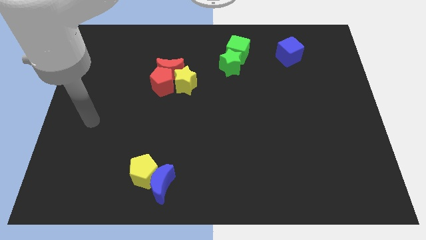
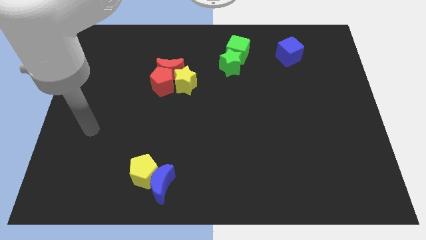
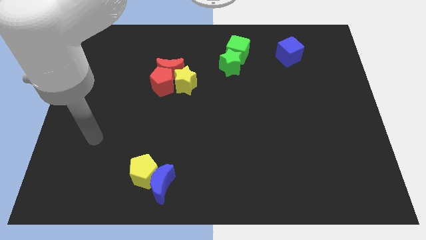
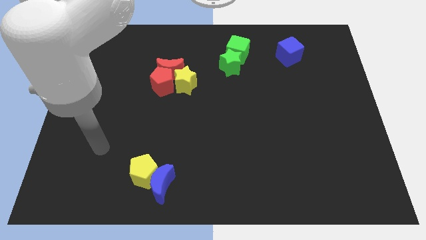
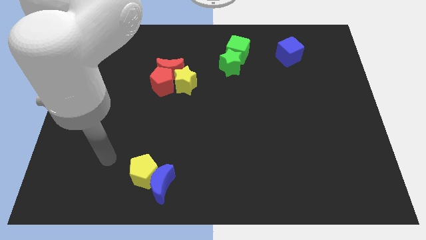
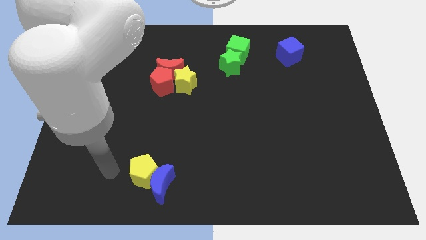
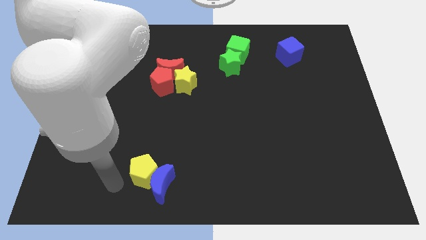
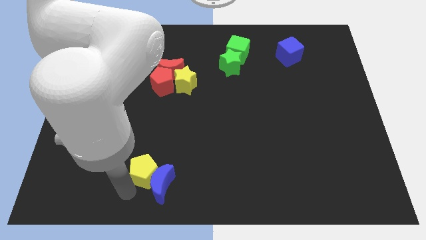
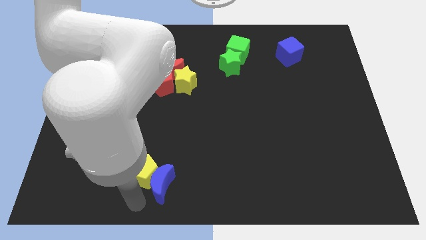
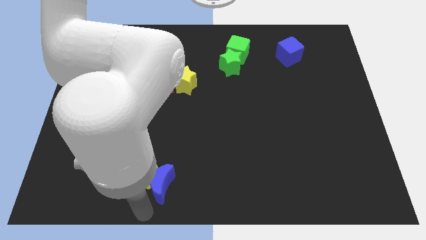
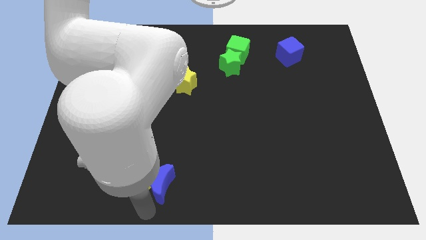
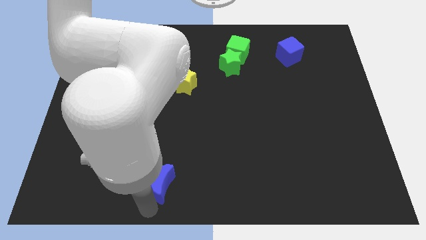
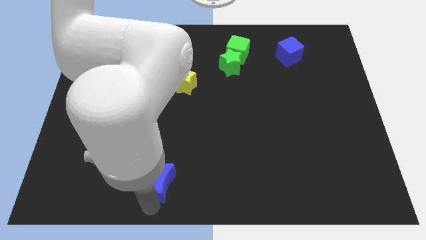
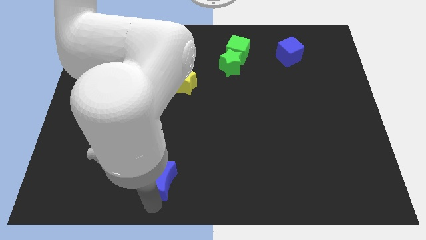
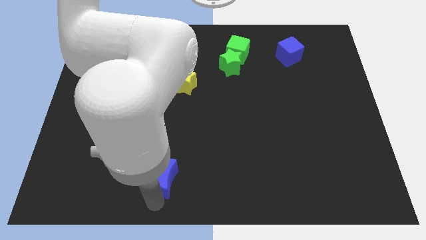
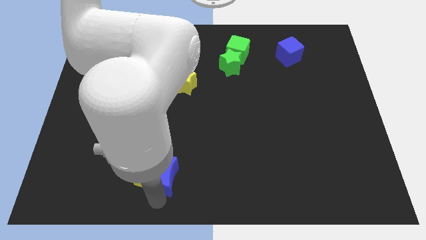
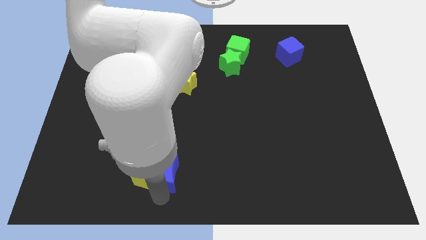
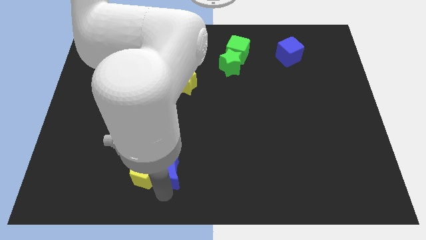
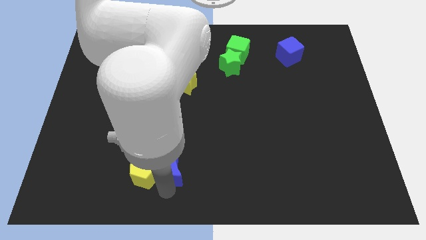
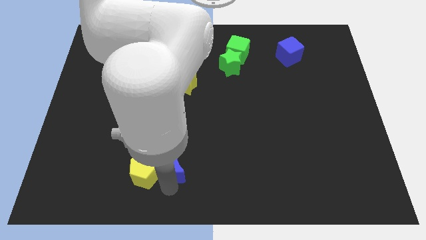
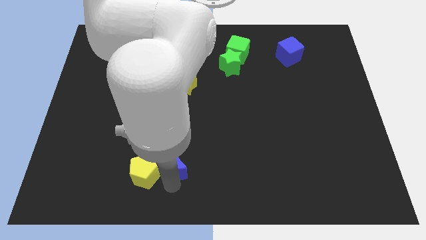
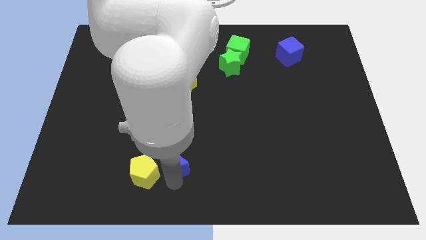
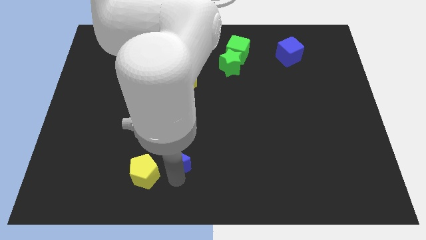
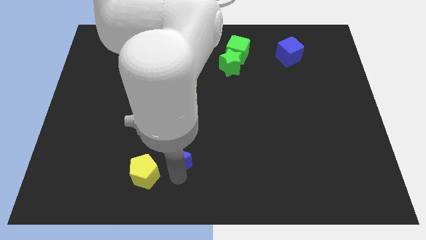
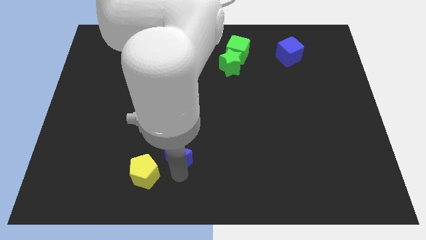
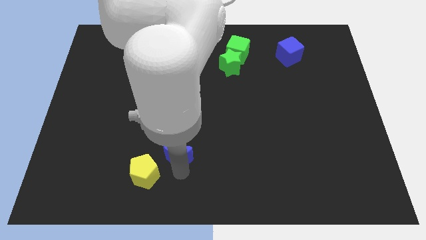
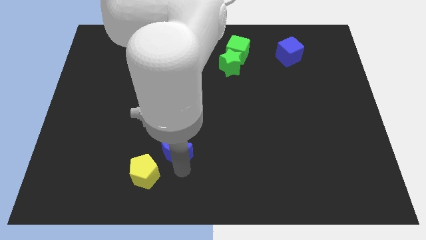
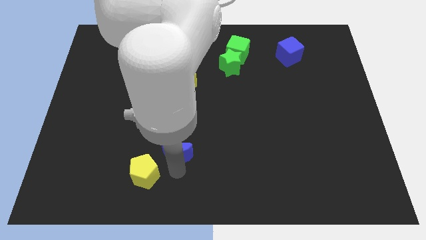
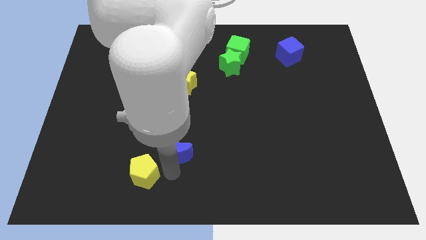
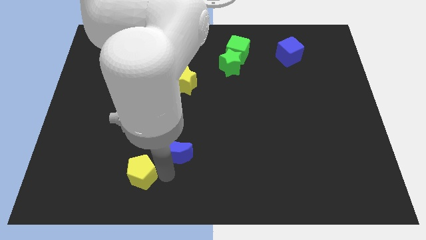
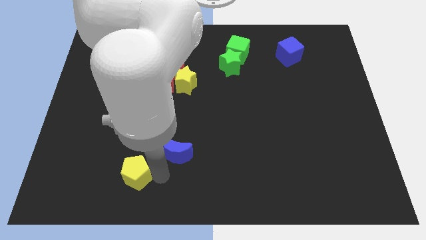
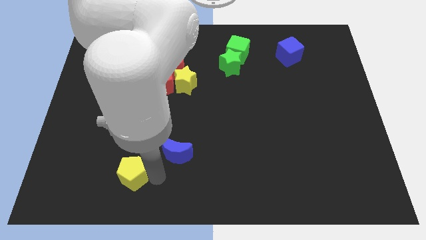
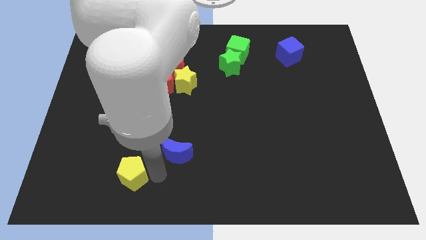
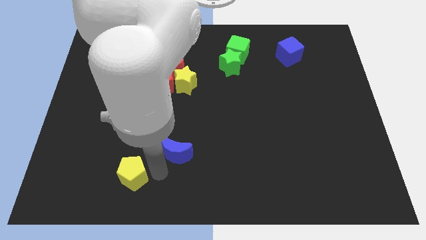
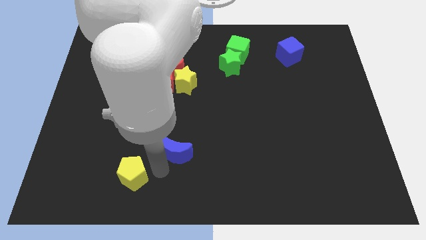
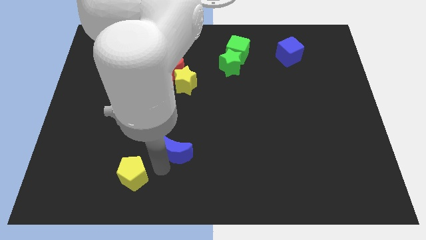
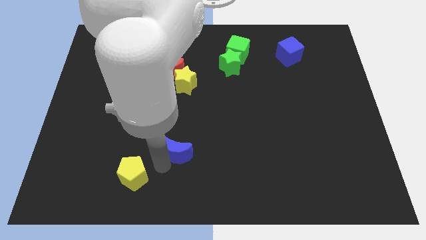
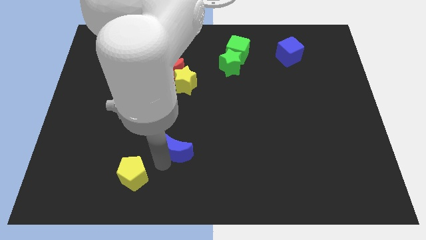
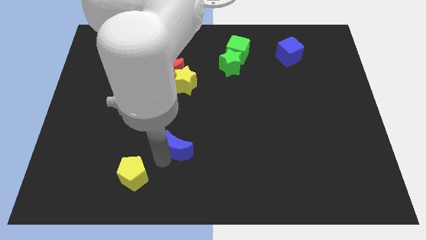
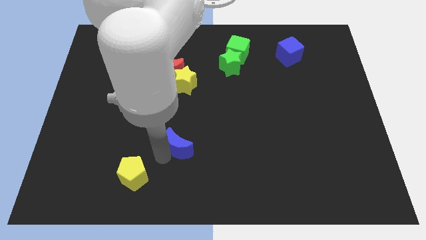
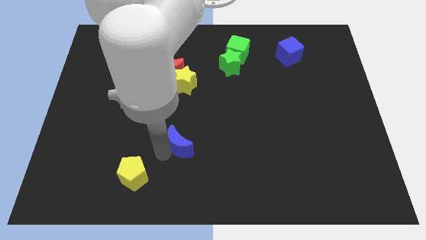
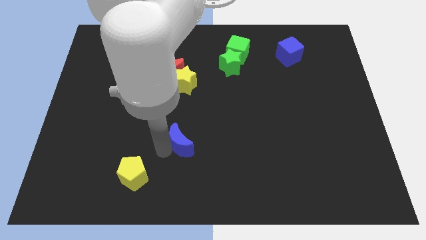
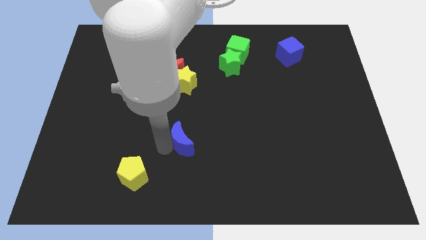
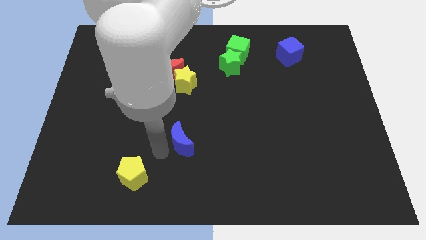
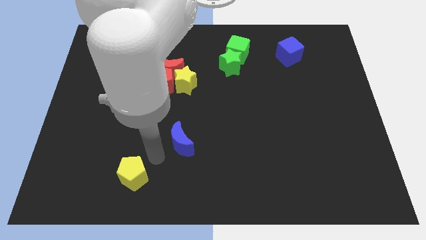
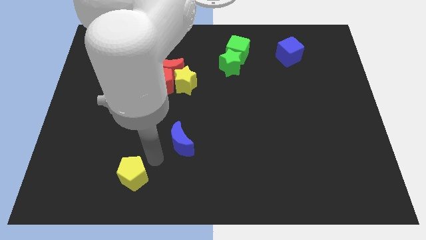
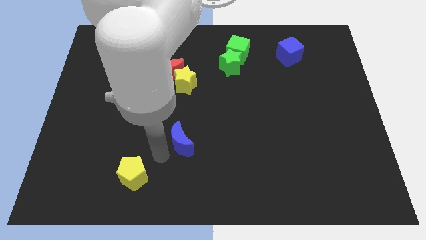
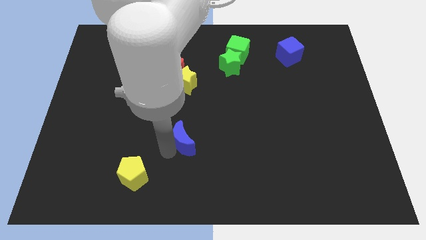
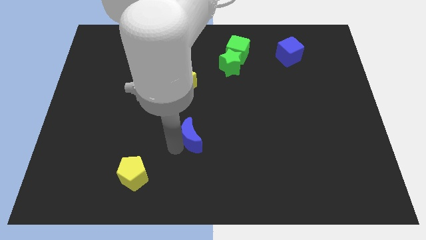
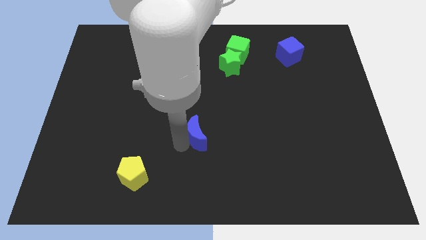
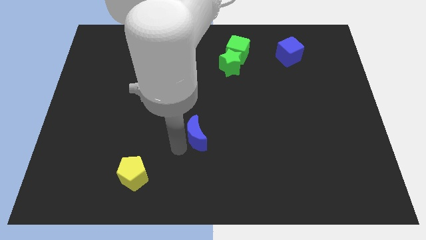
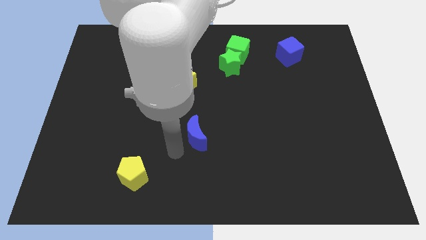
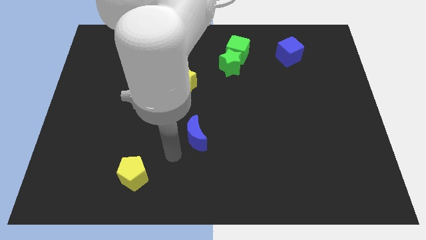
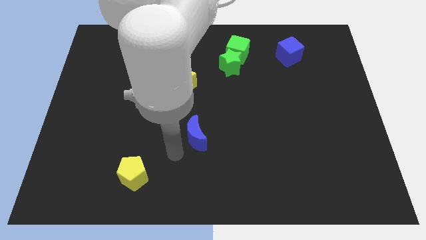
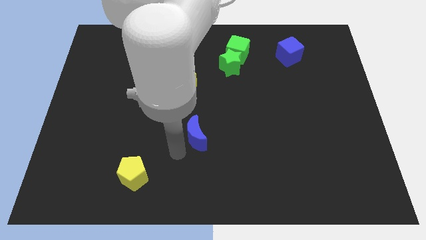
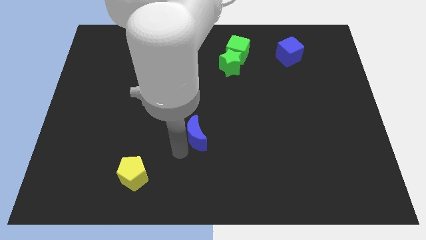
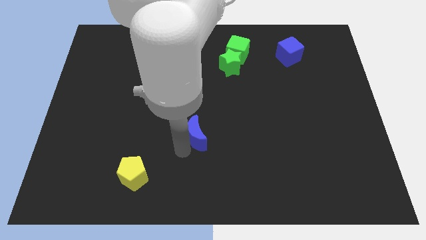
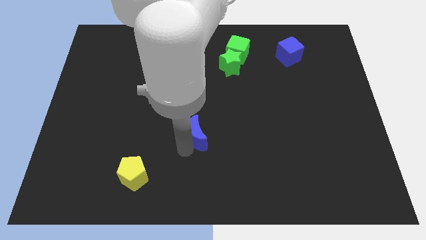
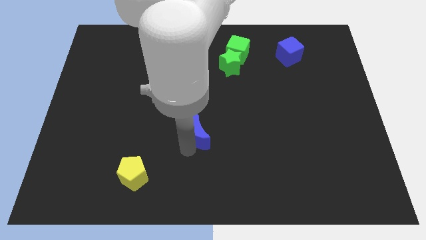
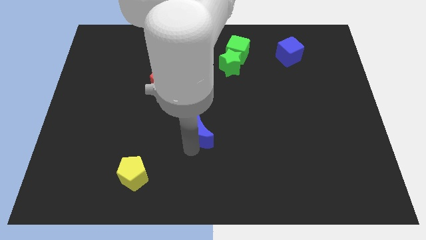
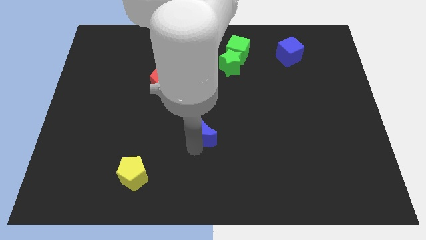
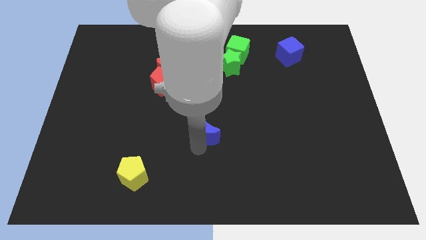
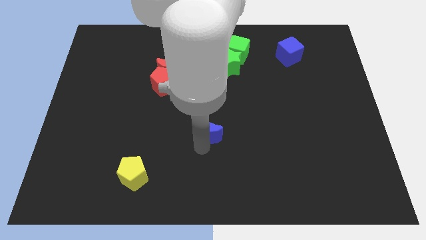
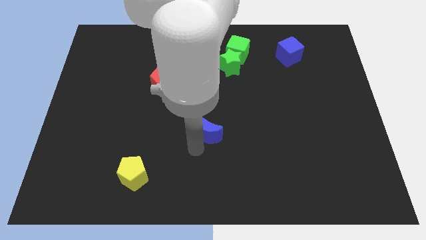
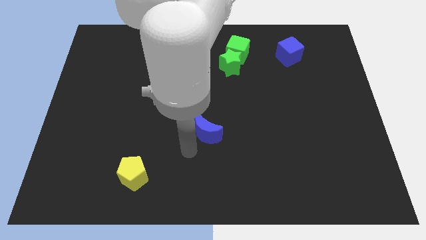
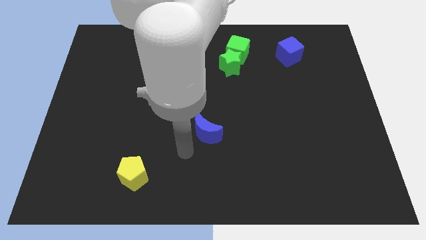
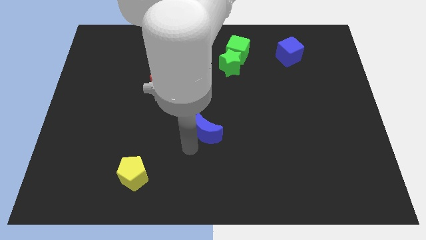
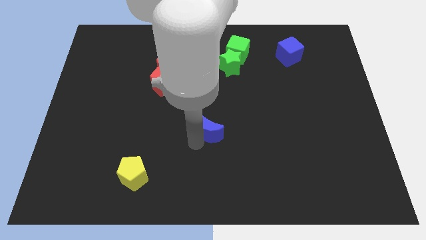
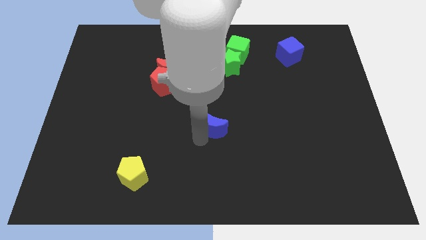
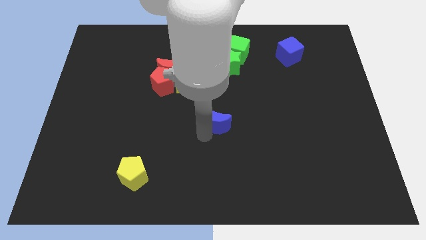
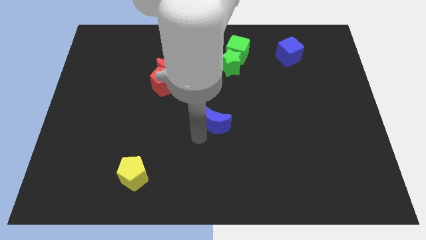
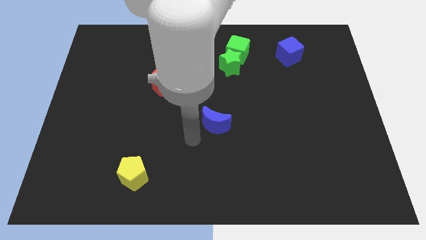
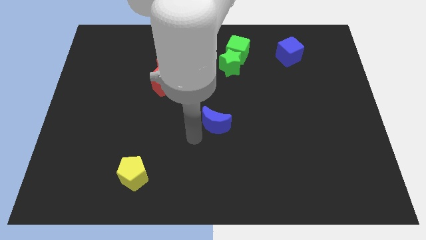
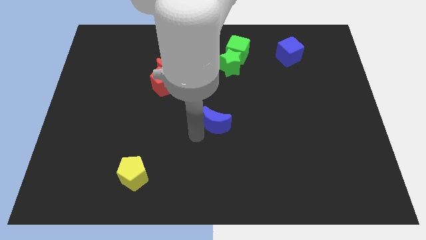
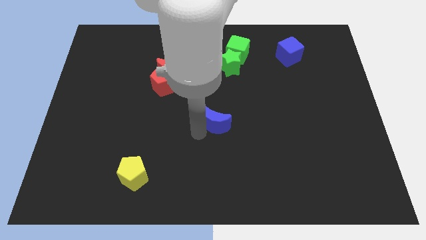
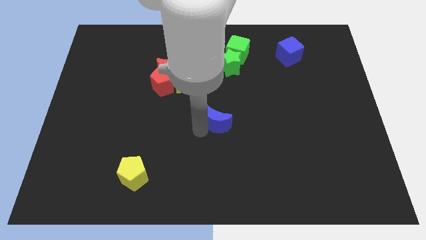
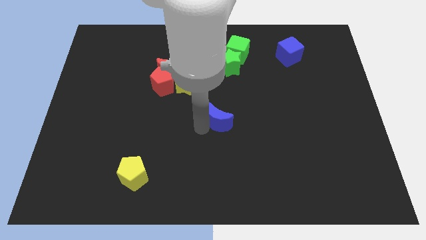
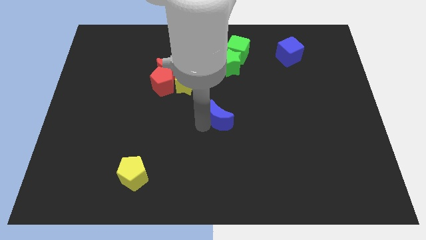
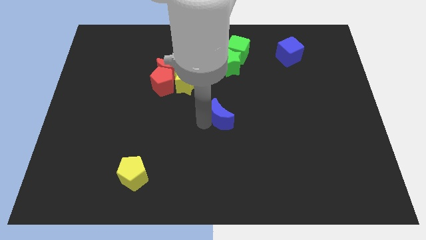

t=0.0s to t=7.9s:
push the blue moon upwards and to the right diagonally
